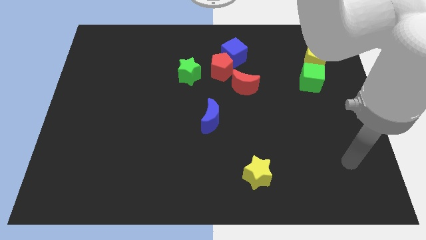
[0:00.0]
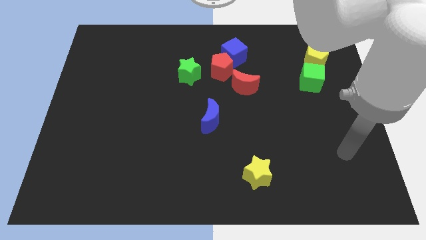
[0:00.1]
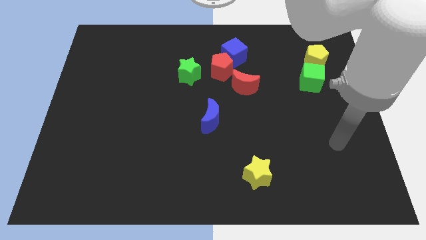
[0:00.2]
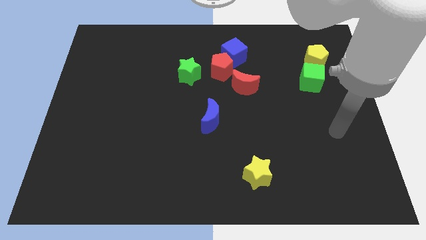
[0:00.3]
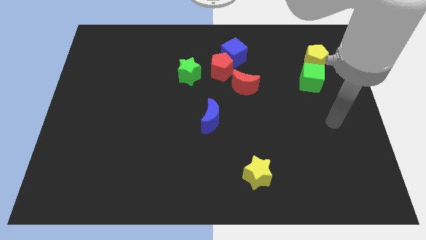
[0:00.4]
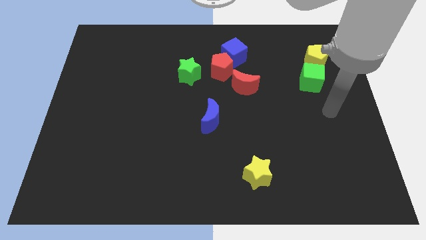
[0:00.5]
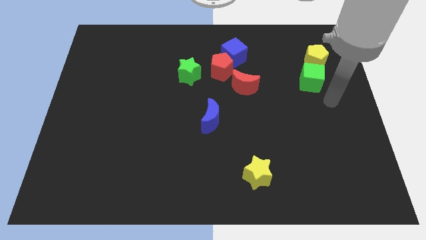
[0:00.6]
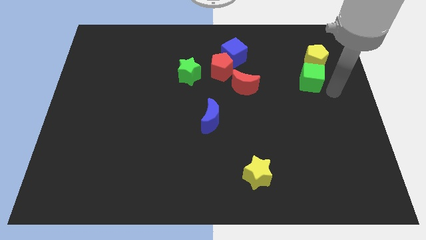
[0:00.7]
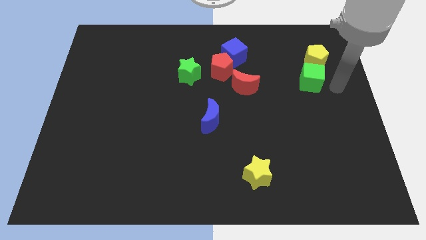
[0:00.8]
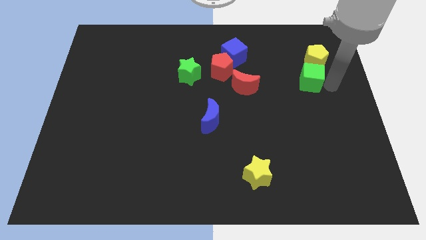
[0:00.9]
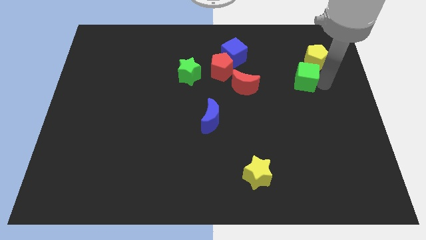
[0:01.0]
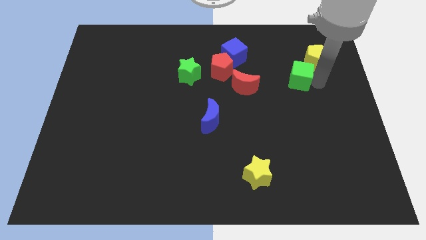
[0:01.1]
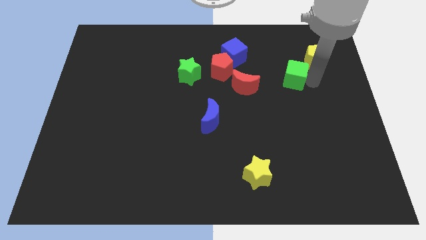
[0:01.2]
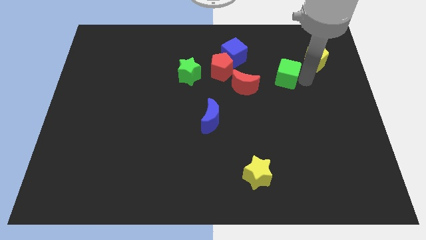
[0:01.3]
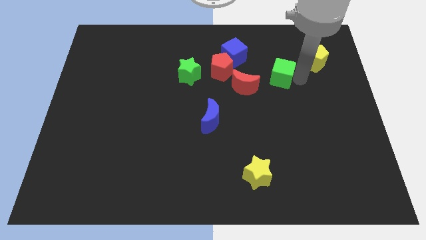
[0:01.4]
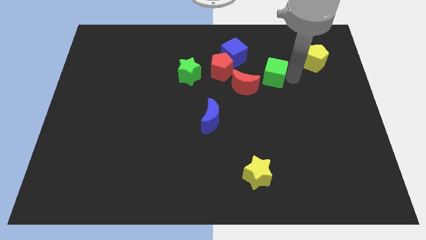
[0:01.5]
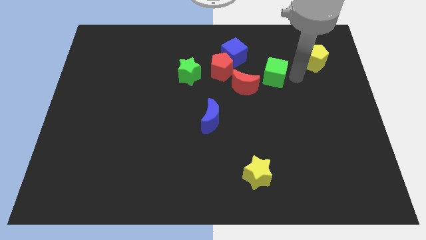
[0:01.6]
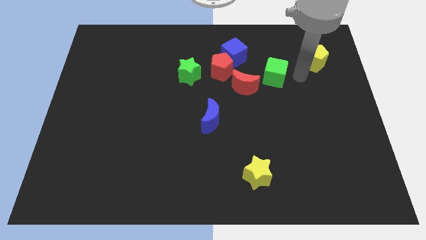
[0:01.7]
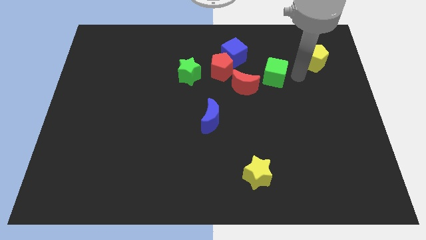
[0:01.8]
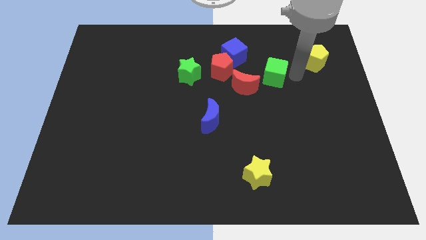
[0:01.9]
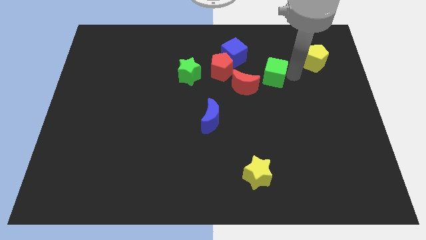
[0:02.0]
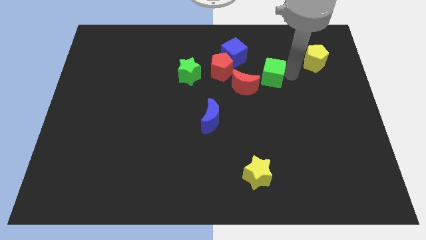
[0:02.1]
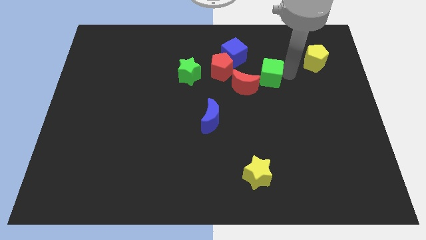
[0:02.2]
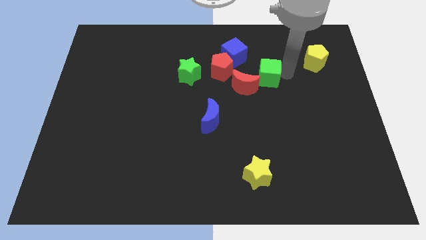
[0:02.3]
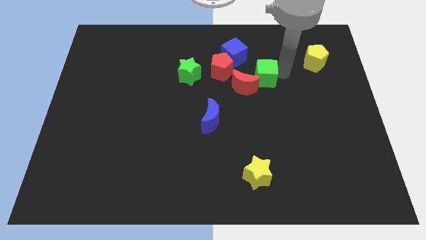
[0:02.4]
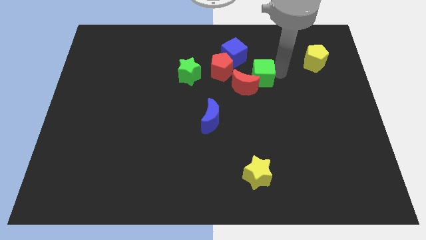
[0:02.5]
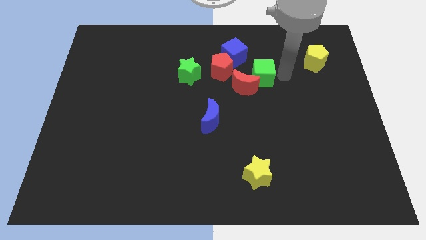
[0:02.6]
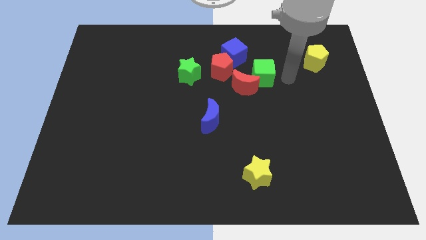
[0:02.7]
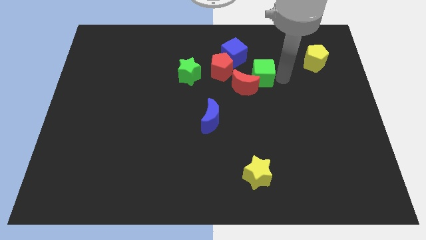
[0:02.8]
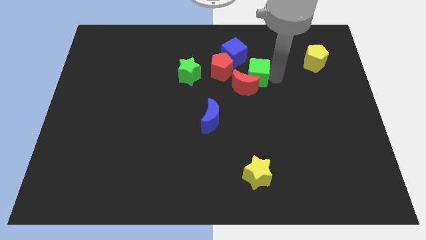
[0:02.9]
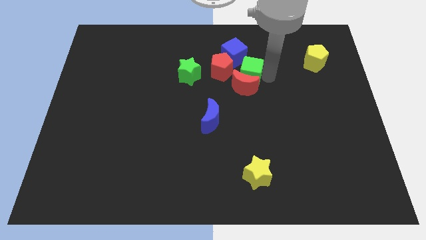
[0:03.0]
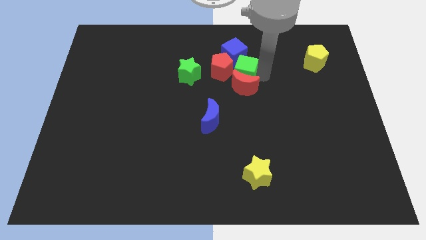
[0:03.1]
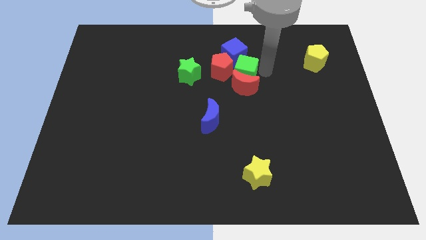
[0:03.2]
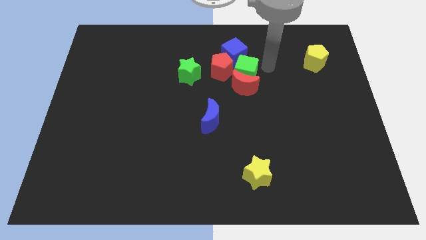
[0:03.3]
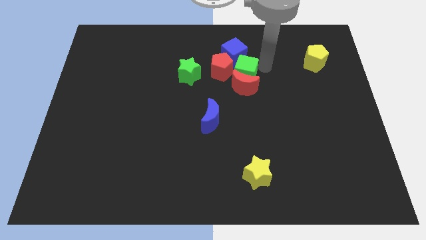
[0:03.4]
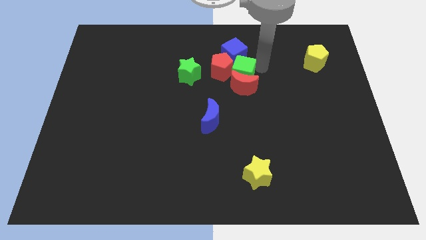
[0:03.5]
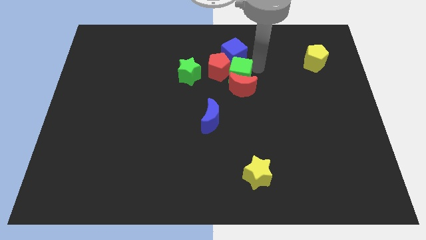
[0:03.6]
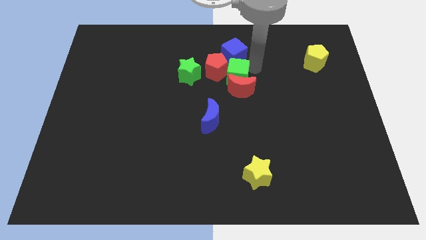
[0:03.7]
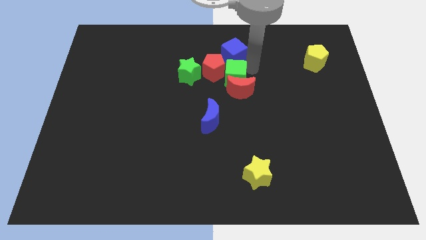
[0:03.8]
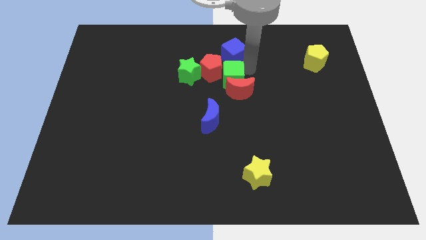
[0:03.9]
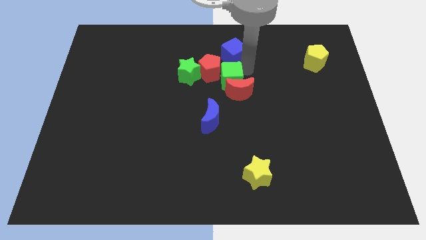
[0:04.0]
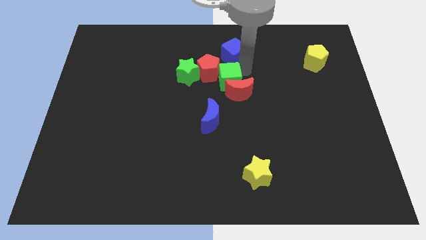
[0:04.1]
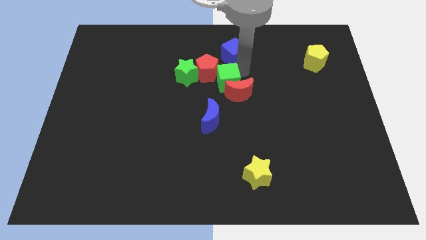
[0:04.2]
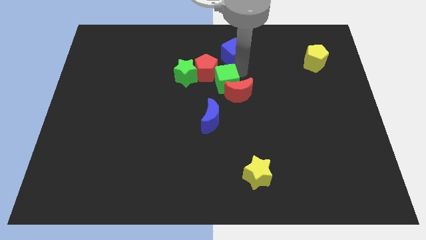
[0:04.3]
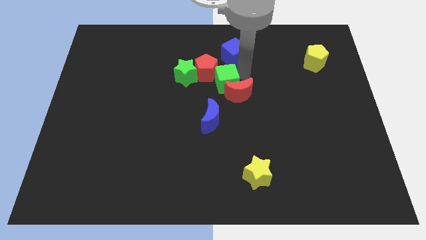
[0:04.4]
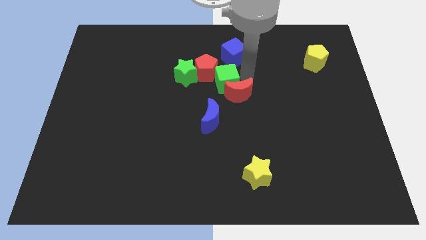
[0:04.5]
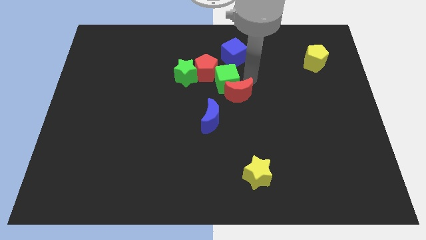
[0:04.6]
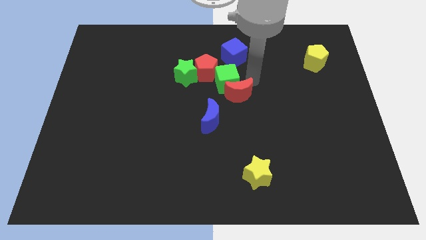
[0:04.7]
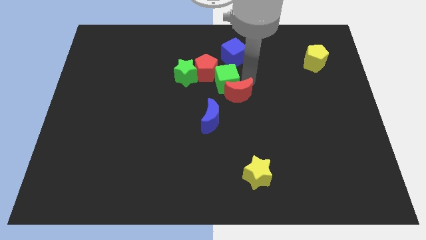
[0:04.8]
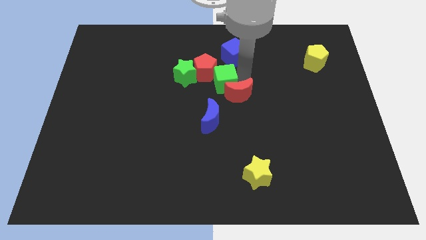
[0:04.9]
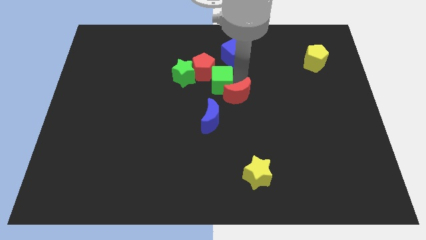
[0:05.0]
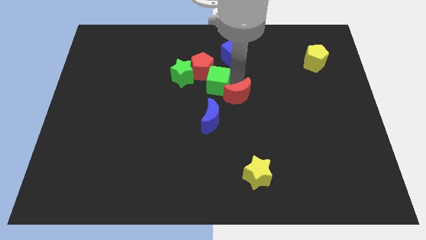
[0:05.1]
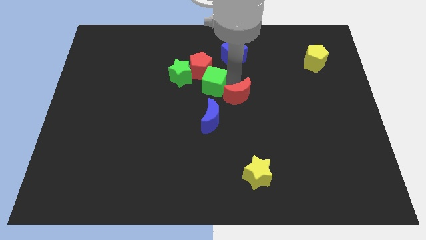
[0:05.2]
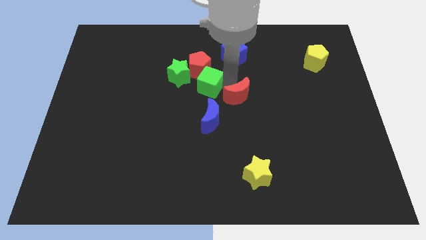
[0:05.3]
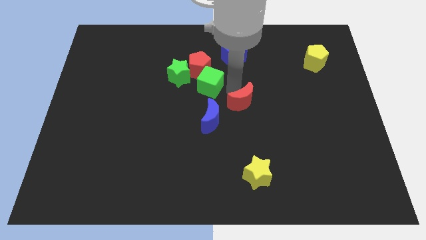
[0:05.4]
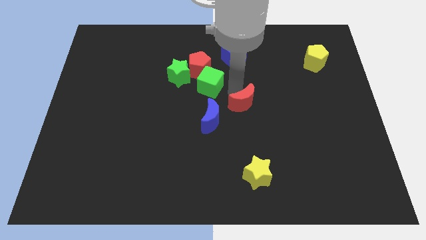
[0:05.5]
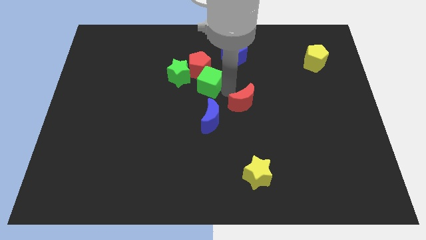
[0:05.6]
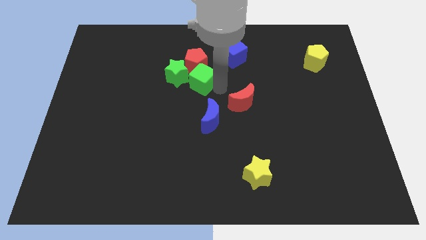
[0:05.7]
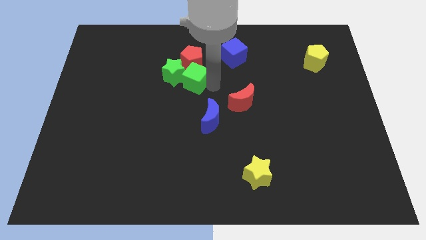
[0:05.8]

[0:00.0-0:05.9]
move the green cube close to the green star

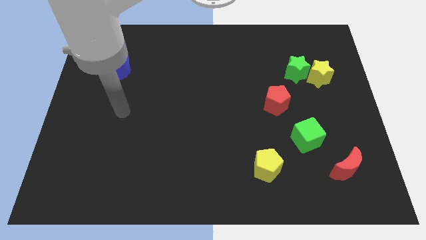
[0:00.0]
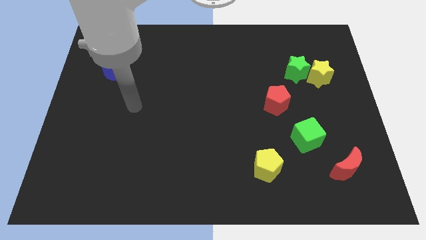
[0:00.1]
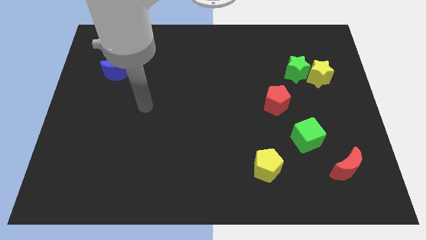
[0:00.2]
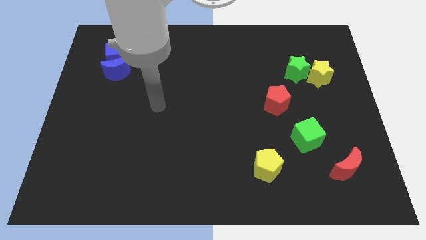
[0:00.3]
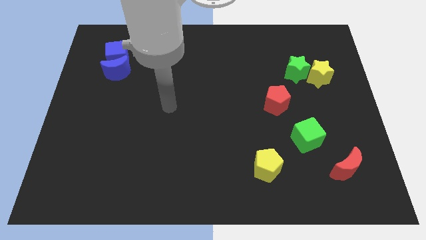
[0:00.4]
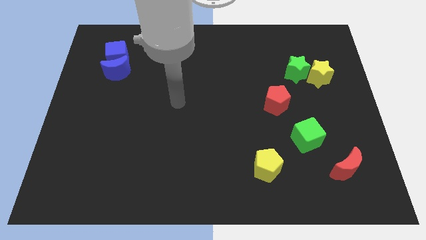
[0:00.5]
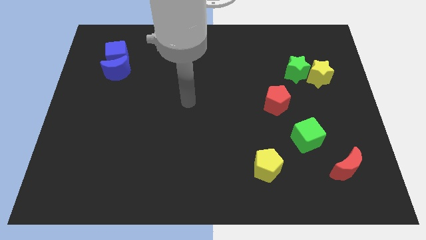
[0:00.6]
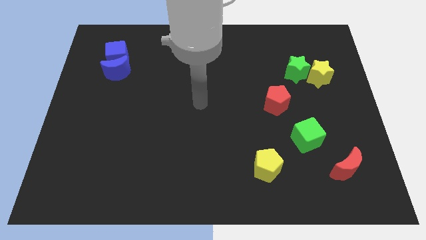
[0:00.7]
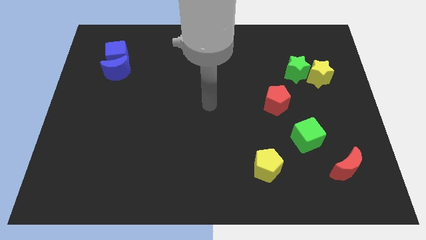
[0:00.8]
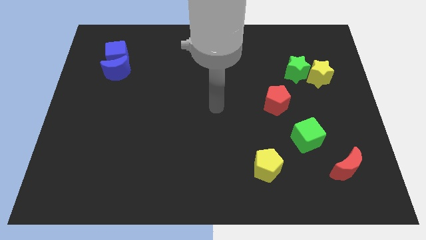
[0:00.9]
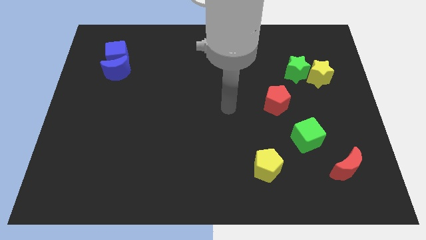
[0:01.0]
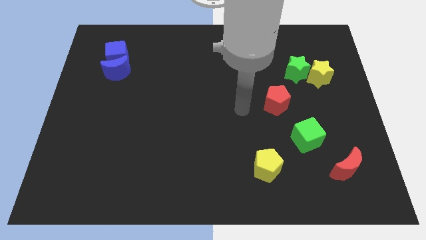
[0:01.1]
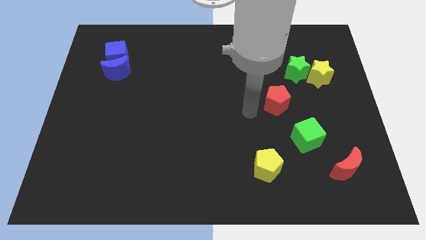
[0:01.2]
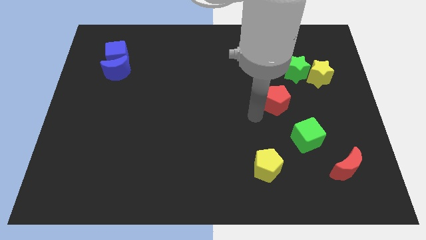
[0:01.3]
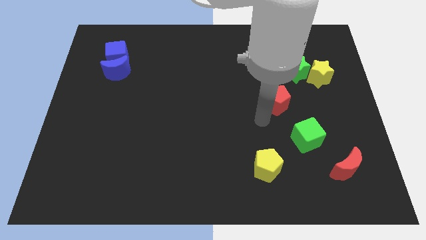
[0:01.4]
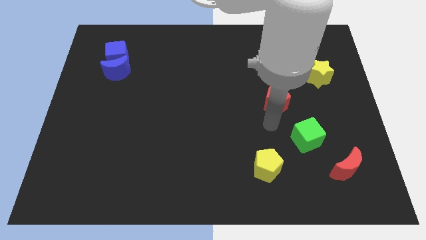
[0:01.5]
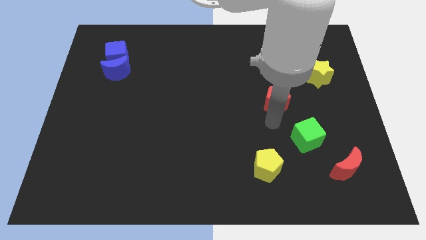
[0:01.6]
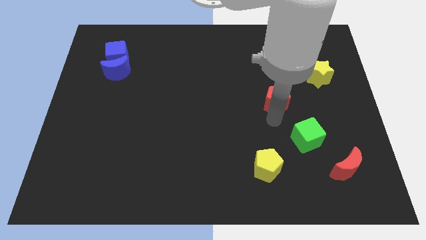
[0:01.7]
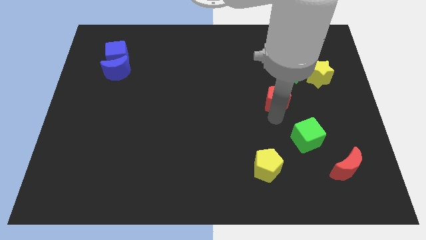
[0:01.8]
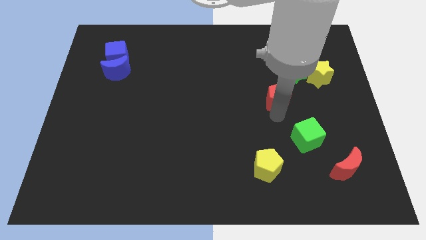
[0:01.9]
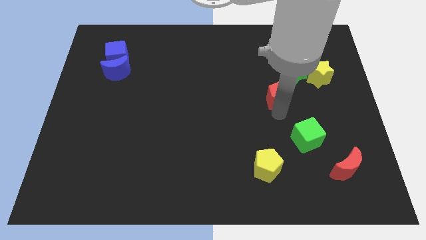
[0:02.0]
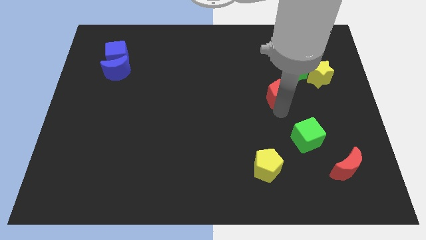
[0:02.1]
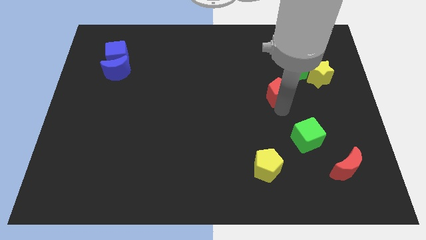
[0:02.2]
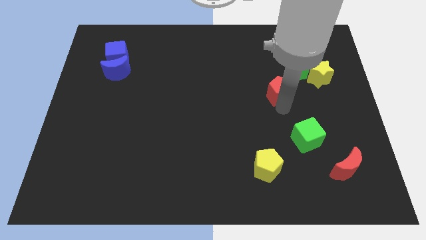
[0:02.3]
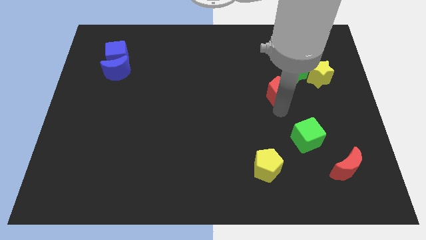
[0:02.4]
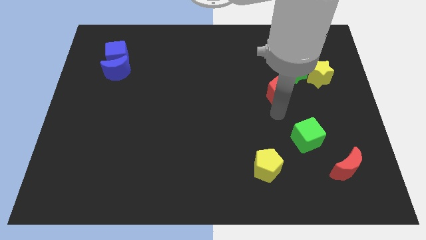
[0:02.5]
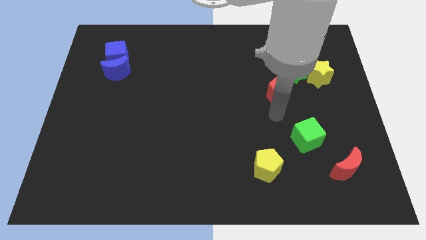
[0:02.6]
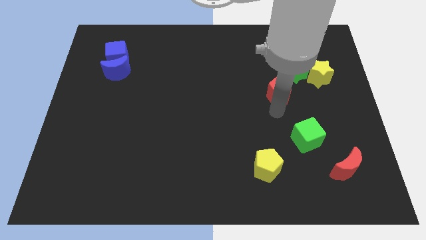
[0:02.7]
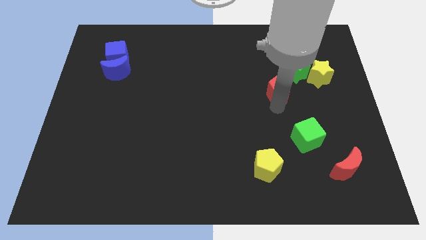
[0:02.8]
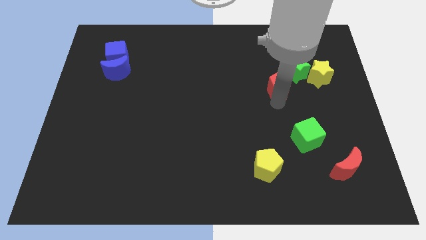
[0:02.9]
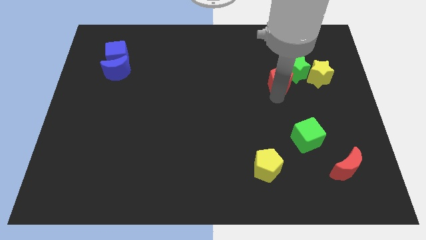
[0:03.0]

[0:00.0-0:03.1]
slide the red pentagon to the green star
